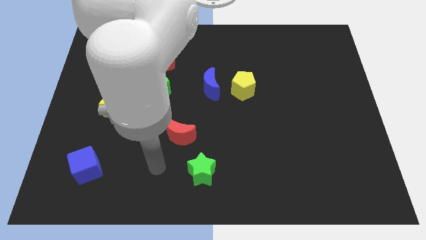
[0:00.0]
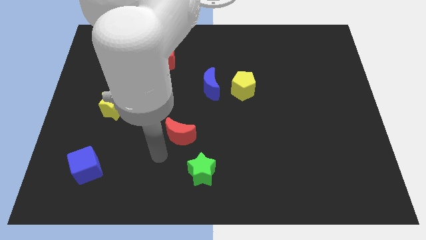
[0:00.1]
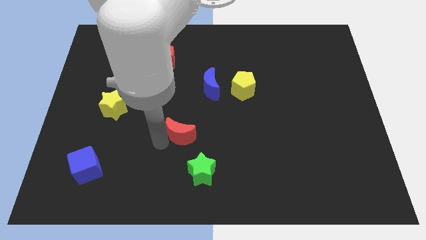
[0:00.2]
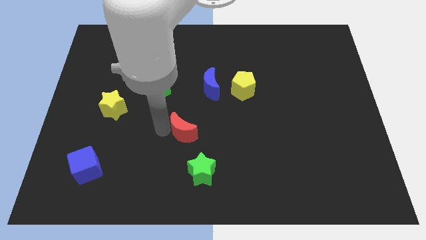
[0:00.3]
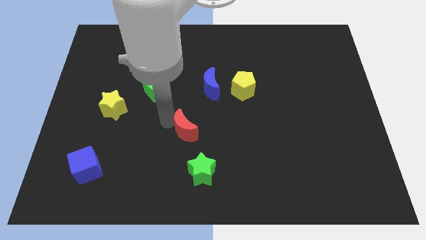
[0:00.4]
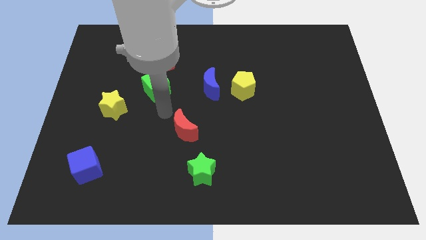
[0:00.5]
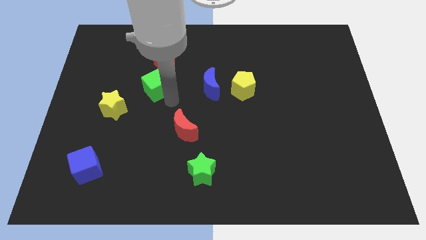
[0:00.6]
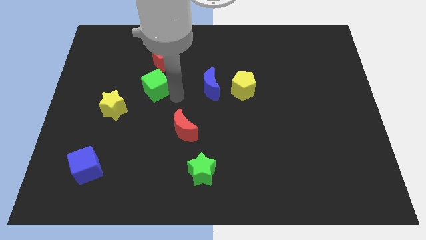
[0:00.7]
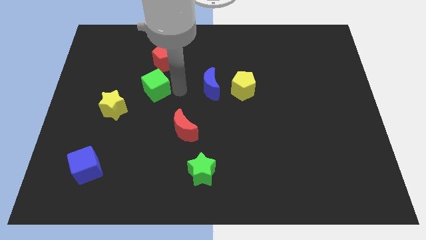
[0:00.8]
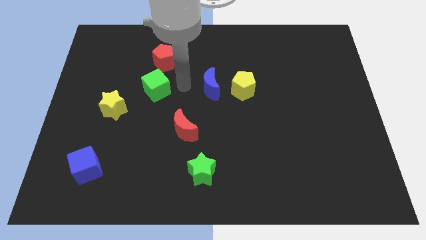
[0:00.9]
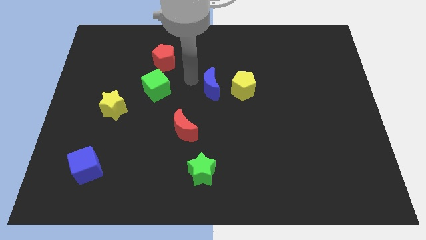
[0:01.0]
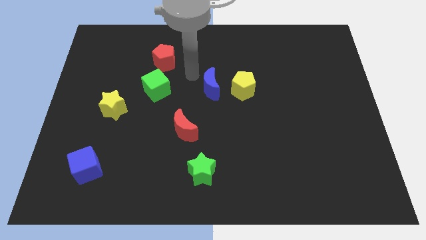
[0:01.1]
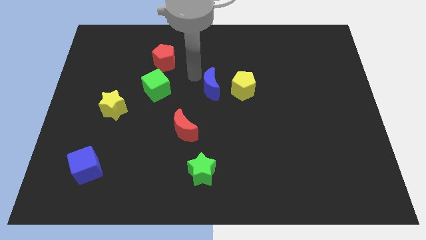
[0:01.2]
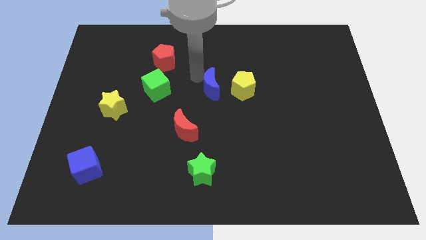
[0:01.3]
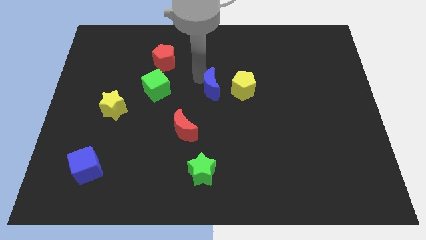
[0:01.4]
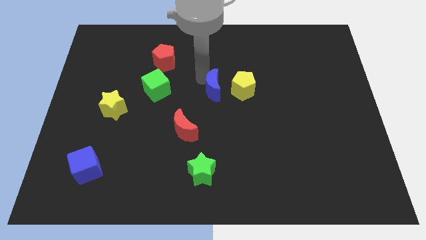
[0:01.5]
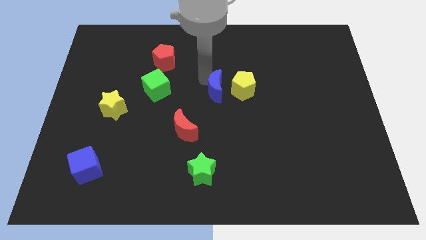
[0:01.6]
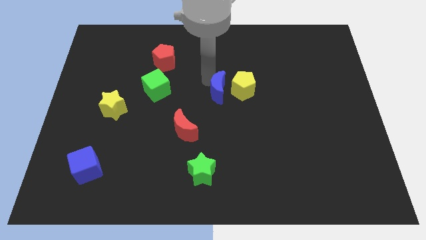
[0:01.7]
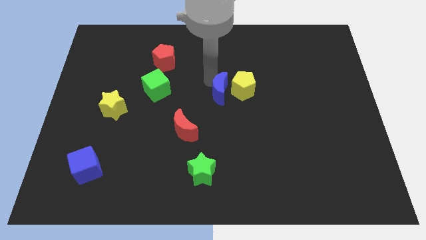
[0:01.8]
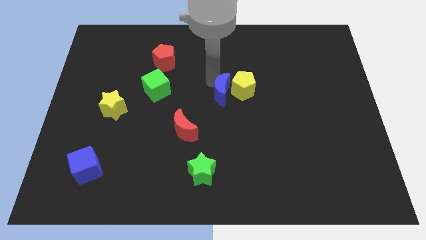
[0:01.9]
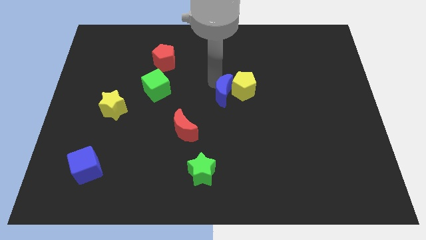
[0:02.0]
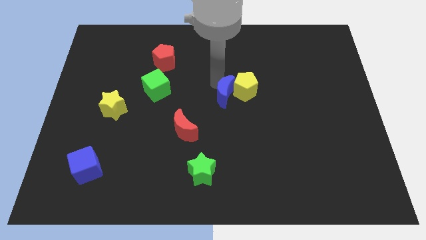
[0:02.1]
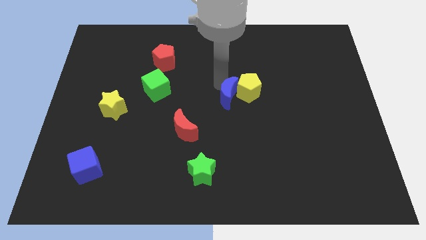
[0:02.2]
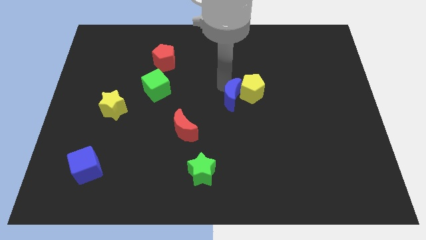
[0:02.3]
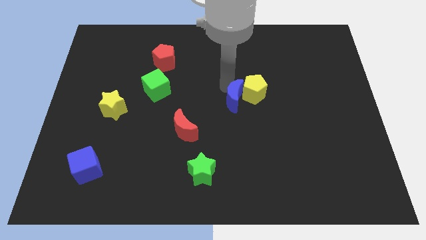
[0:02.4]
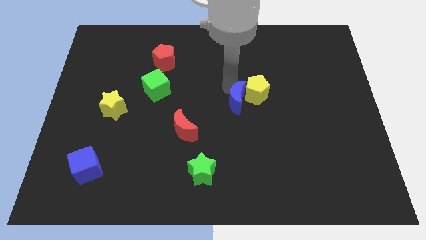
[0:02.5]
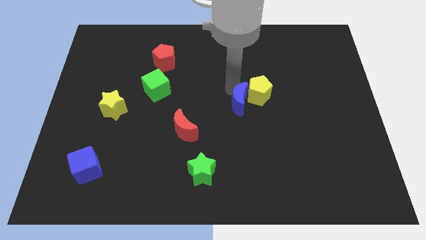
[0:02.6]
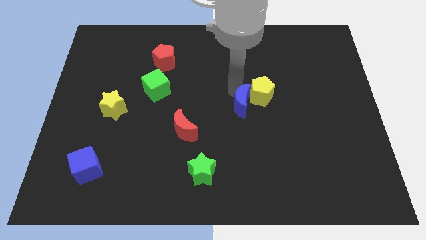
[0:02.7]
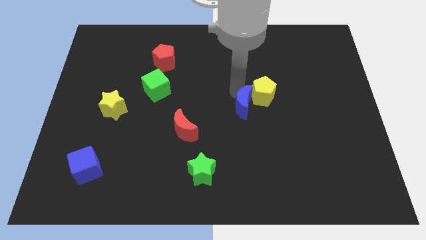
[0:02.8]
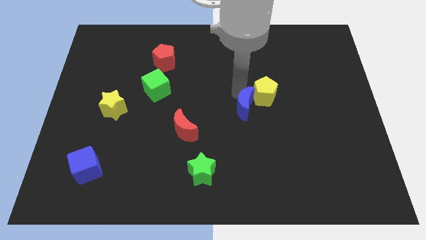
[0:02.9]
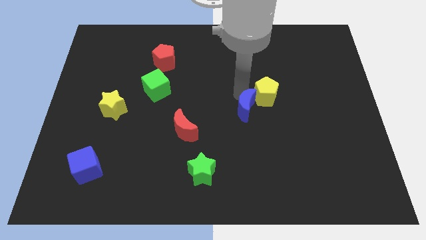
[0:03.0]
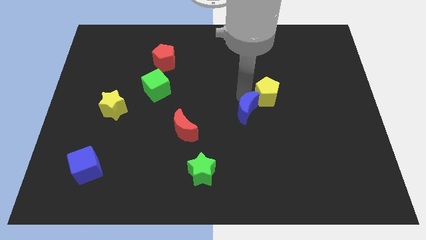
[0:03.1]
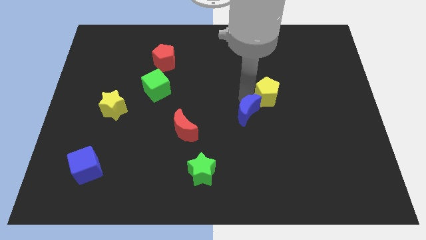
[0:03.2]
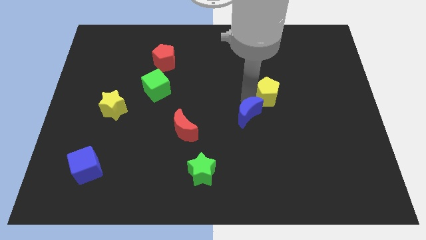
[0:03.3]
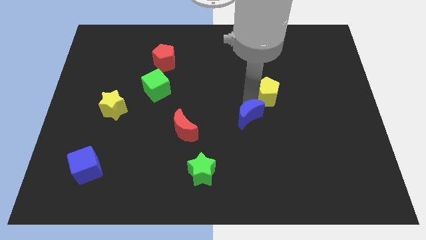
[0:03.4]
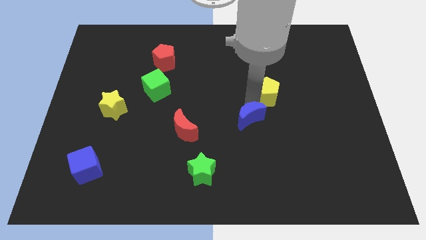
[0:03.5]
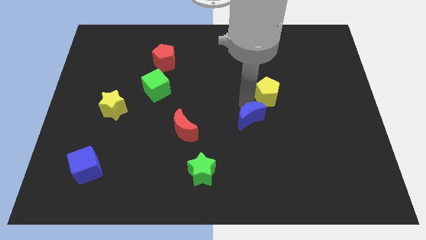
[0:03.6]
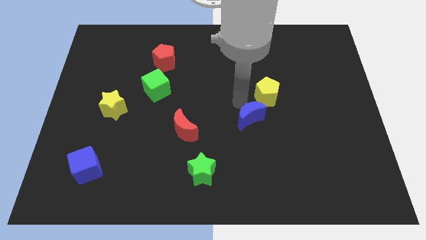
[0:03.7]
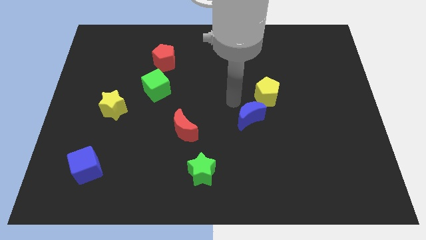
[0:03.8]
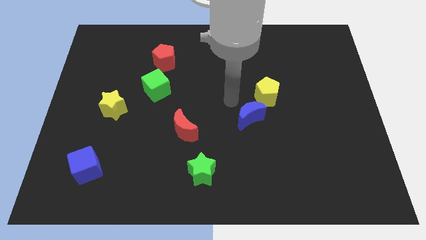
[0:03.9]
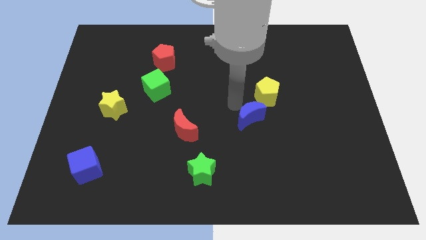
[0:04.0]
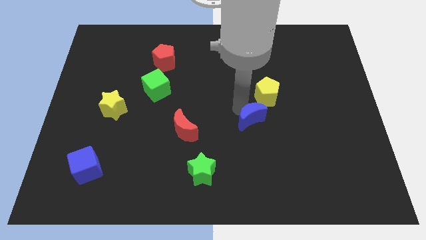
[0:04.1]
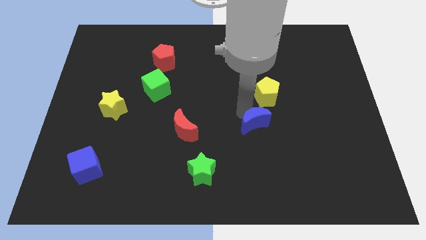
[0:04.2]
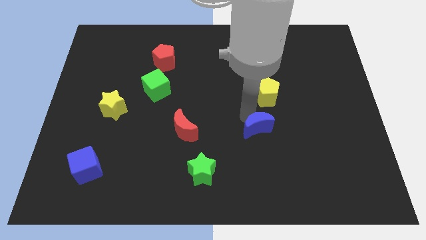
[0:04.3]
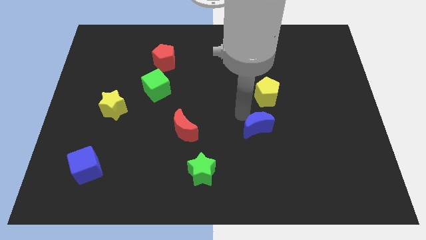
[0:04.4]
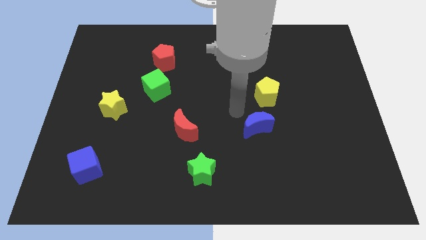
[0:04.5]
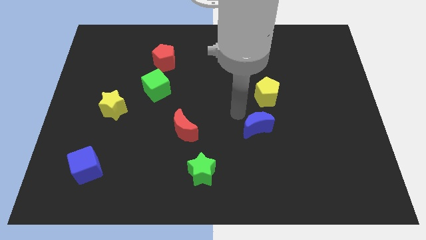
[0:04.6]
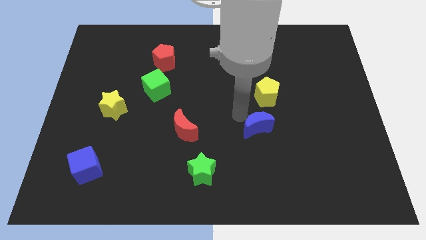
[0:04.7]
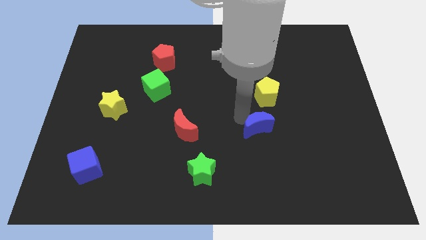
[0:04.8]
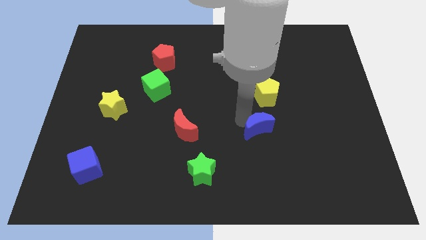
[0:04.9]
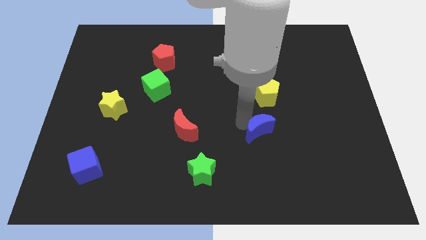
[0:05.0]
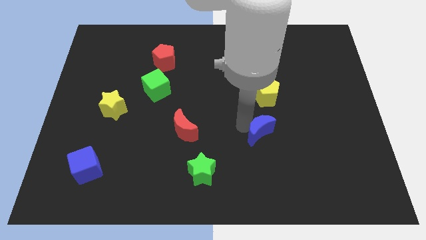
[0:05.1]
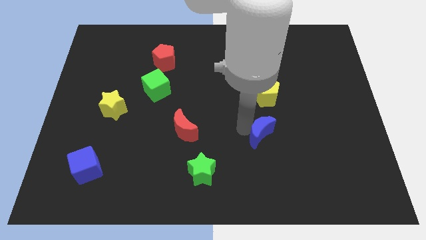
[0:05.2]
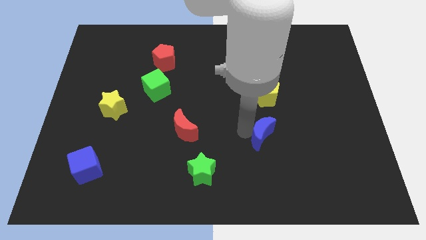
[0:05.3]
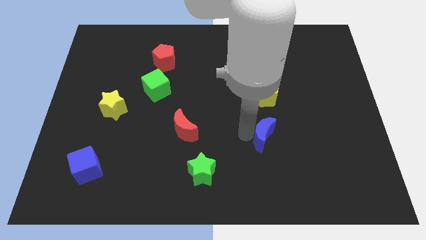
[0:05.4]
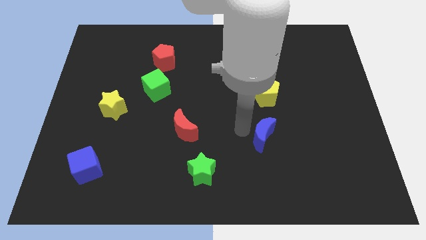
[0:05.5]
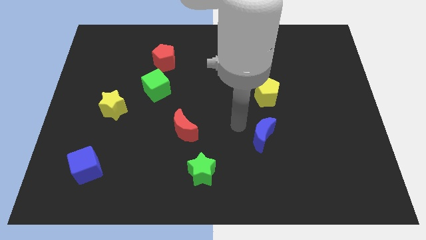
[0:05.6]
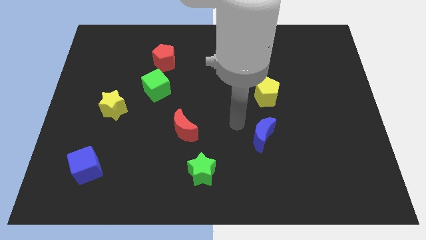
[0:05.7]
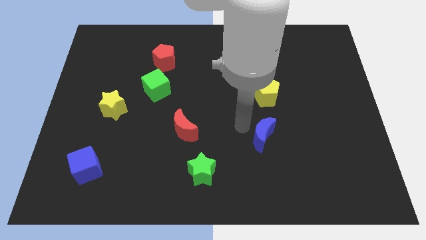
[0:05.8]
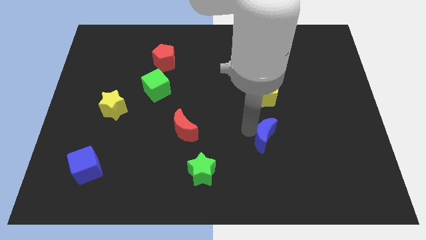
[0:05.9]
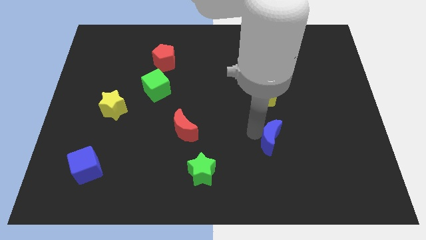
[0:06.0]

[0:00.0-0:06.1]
slide the blue moon downwards and then right

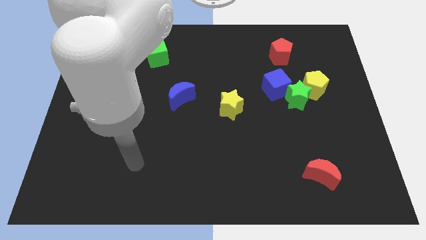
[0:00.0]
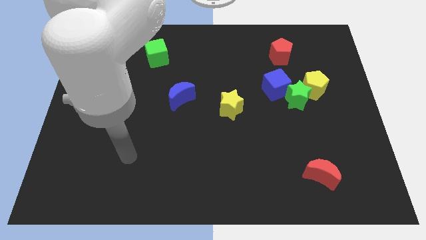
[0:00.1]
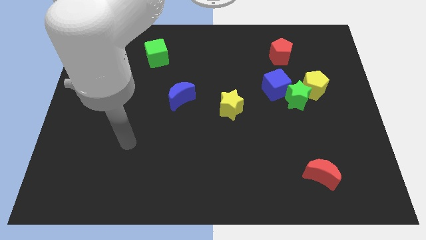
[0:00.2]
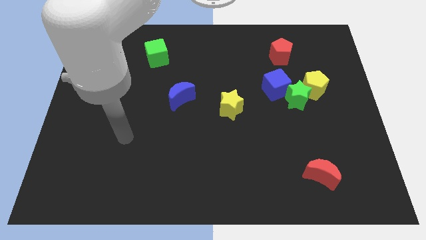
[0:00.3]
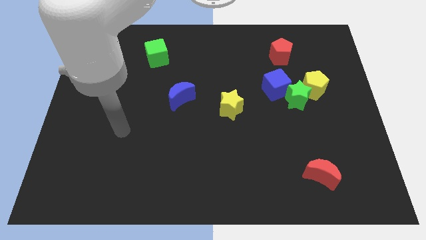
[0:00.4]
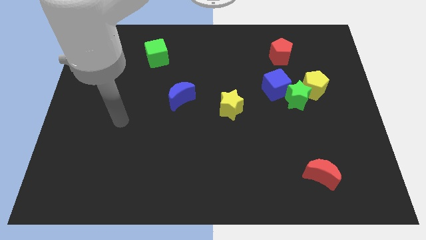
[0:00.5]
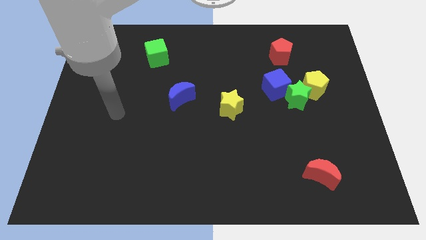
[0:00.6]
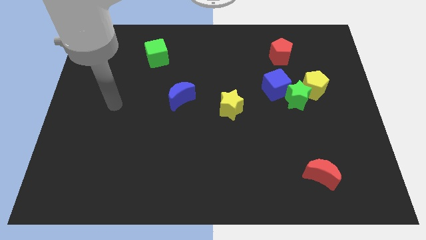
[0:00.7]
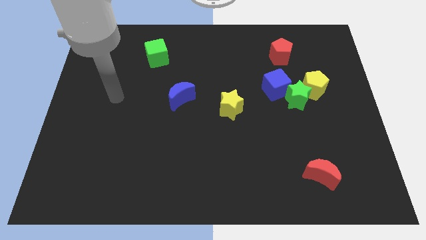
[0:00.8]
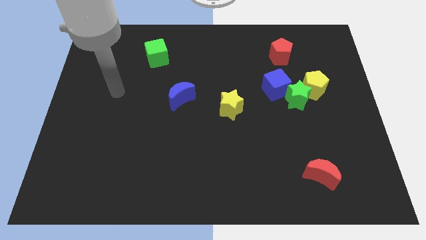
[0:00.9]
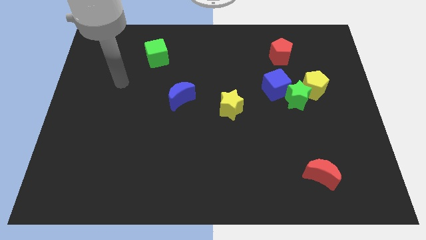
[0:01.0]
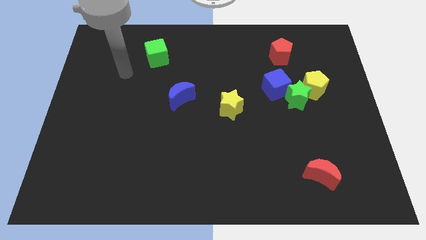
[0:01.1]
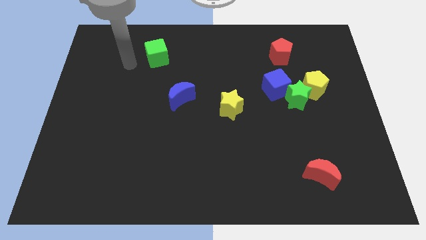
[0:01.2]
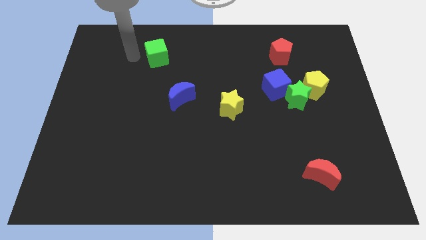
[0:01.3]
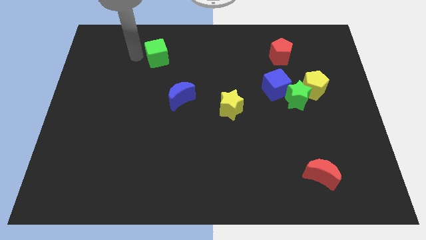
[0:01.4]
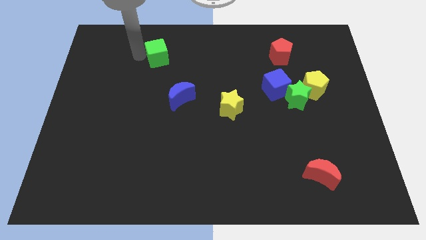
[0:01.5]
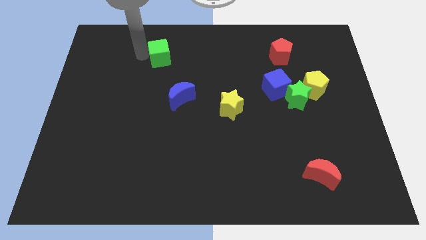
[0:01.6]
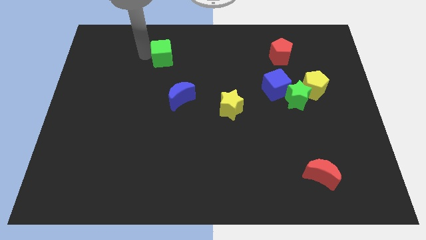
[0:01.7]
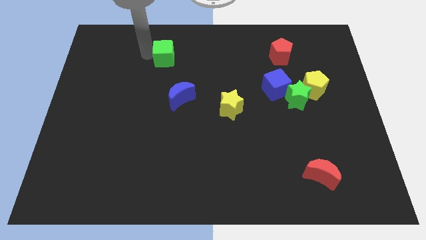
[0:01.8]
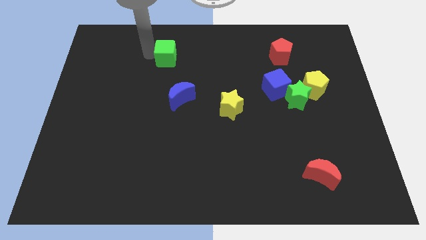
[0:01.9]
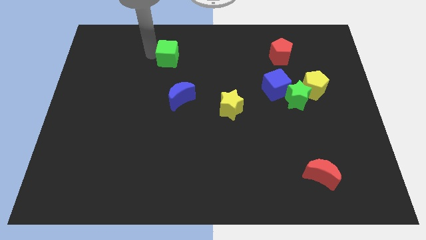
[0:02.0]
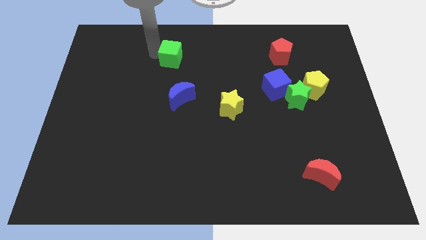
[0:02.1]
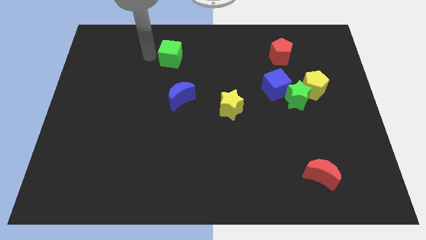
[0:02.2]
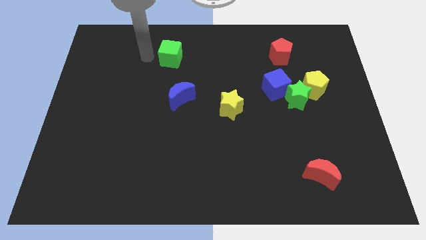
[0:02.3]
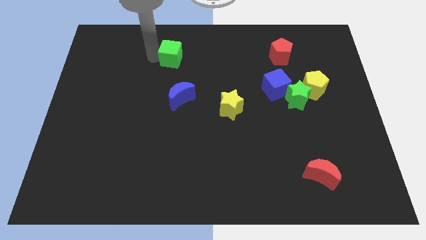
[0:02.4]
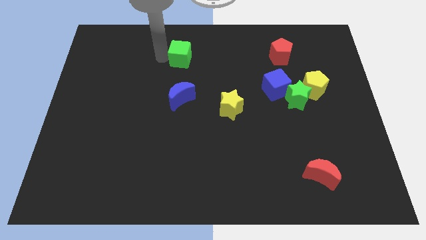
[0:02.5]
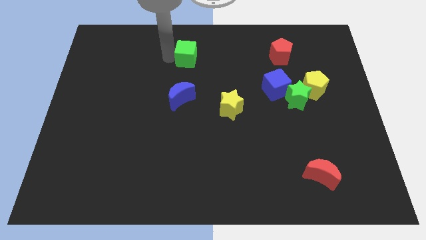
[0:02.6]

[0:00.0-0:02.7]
slide the green cube a little bit to the right
